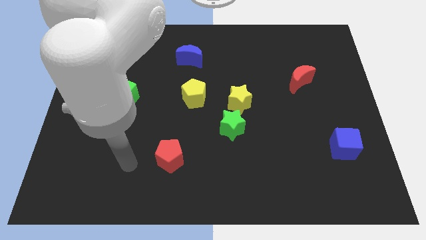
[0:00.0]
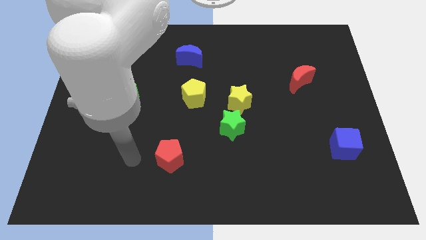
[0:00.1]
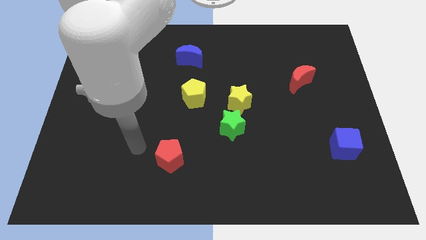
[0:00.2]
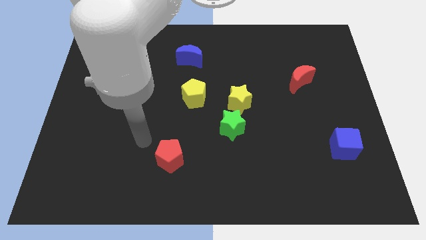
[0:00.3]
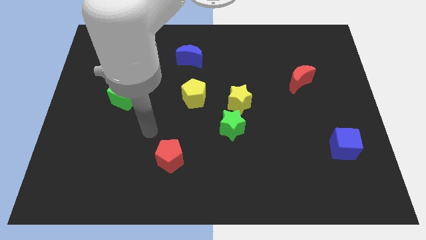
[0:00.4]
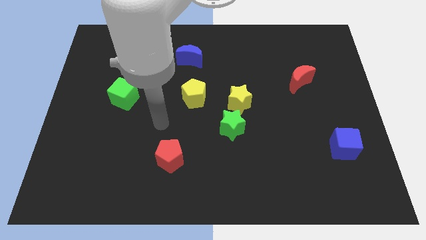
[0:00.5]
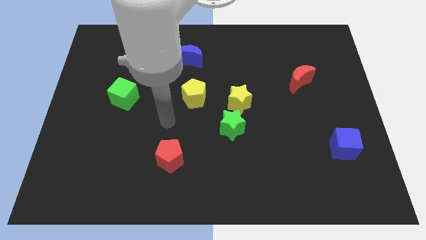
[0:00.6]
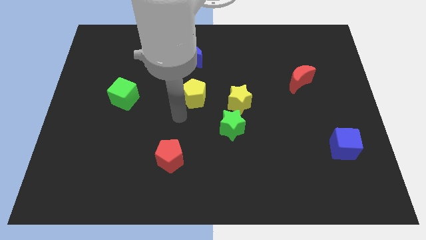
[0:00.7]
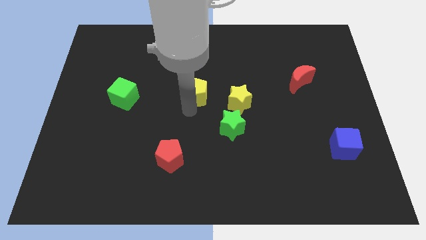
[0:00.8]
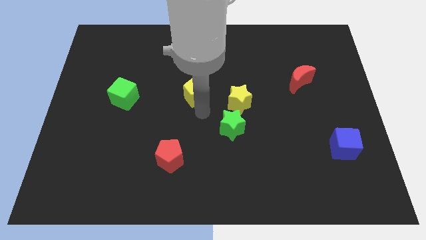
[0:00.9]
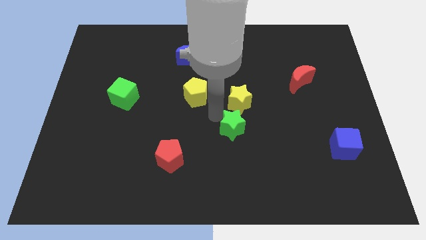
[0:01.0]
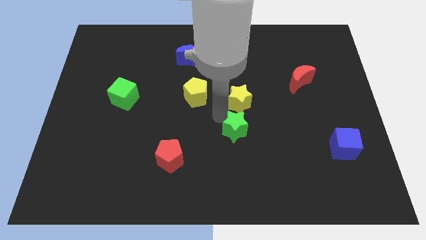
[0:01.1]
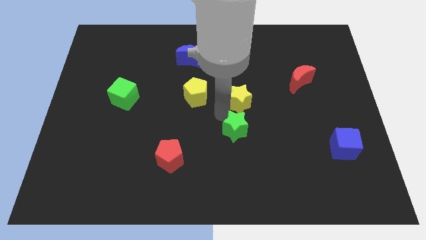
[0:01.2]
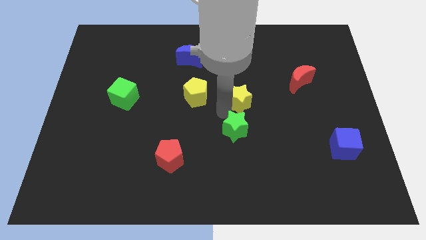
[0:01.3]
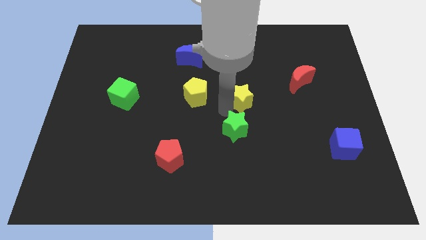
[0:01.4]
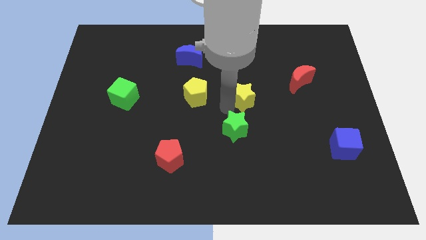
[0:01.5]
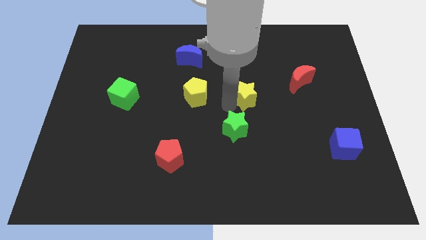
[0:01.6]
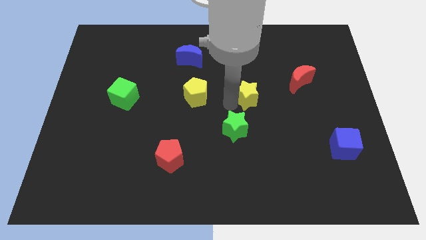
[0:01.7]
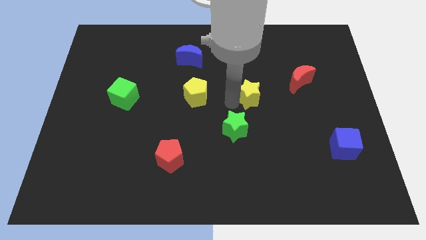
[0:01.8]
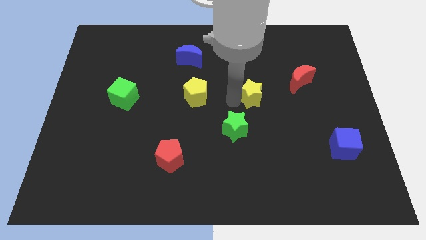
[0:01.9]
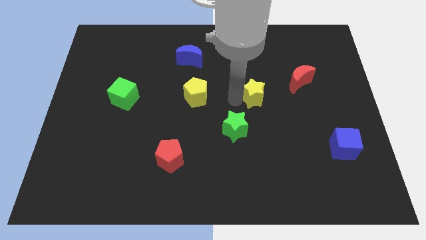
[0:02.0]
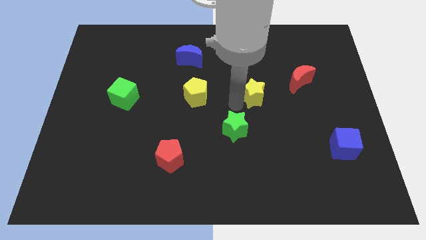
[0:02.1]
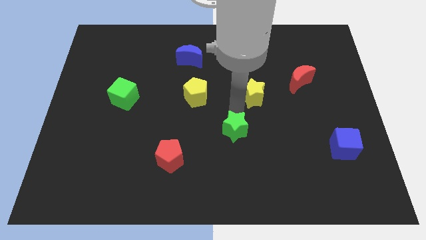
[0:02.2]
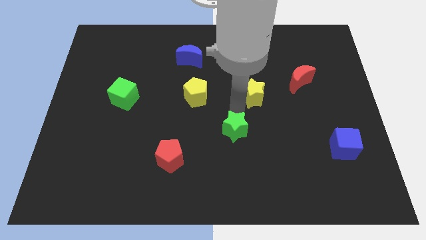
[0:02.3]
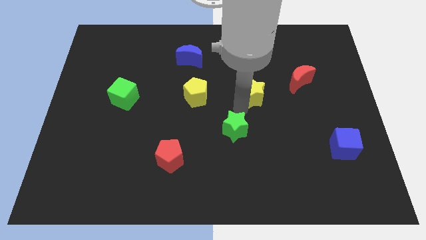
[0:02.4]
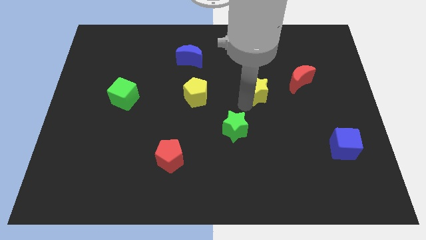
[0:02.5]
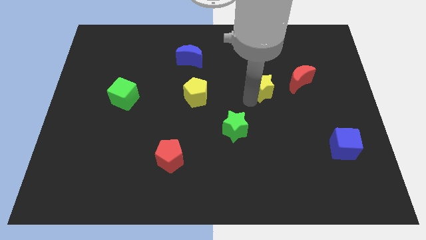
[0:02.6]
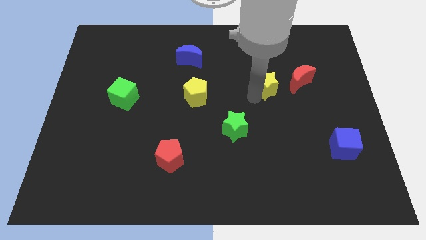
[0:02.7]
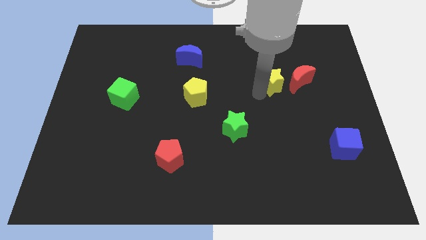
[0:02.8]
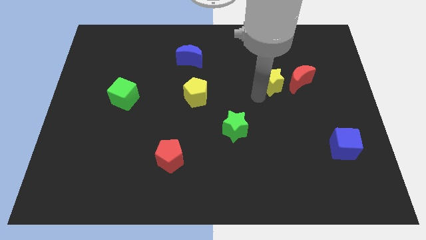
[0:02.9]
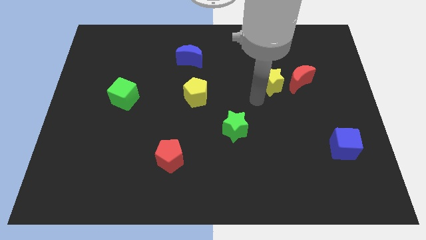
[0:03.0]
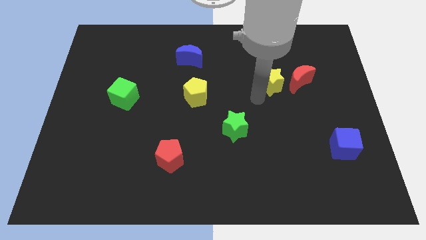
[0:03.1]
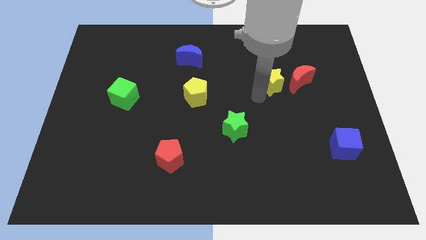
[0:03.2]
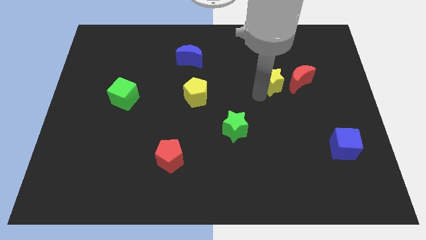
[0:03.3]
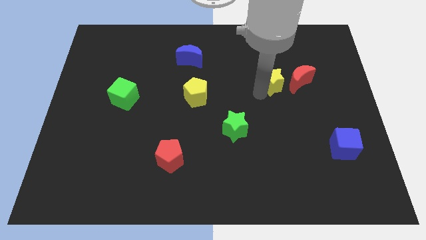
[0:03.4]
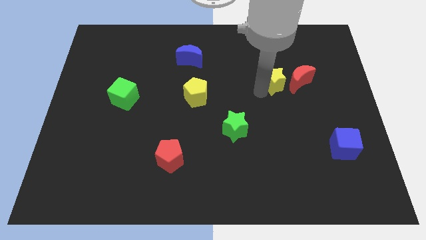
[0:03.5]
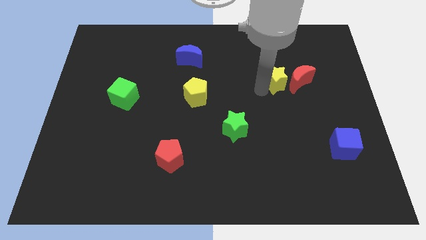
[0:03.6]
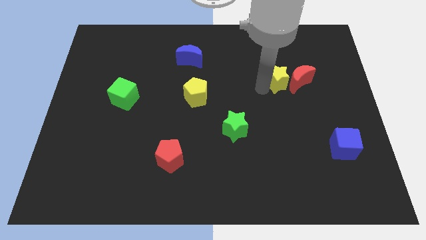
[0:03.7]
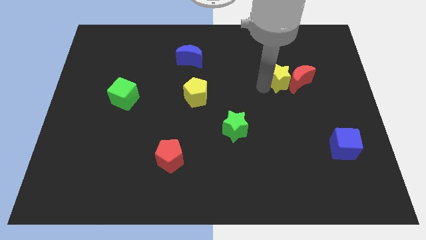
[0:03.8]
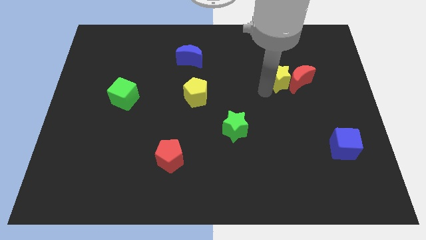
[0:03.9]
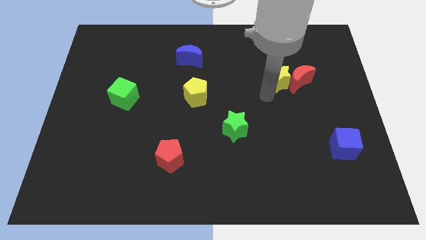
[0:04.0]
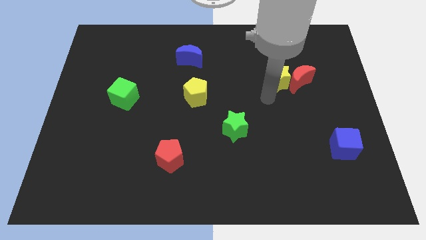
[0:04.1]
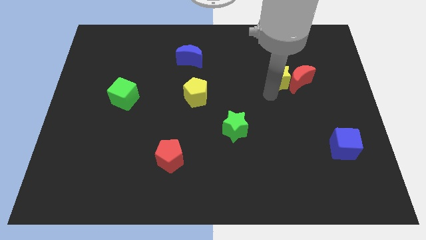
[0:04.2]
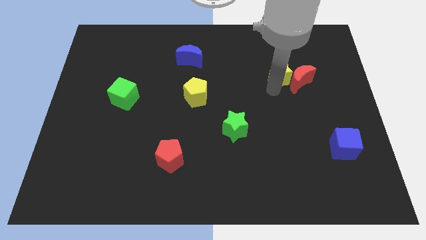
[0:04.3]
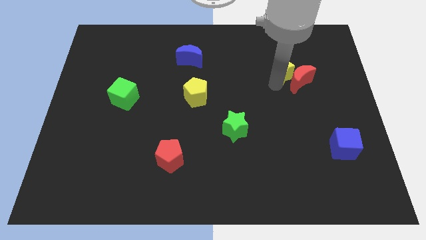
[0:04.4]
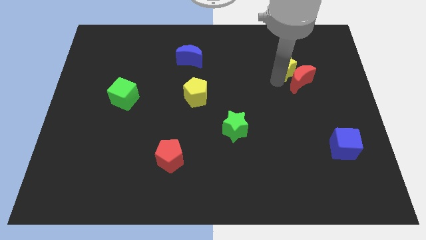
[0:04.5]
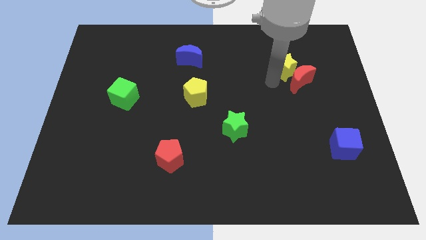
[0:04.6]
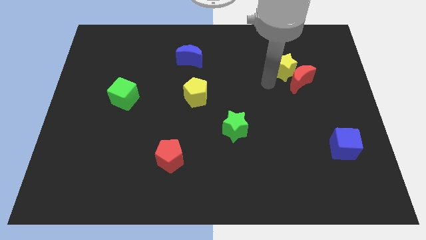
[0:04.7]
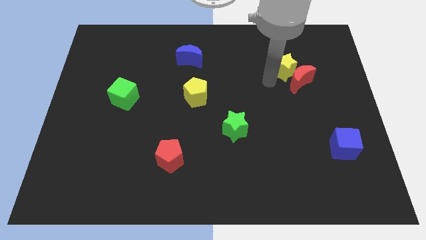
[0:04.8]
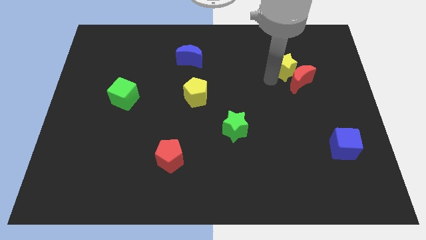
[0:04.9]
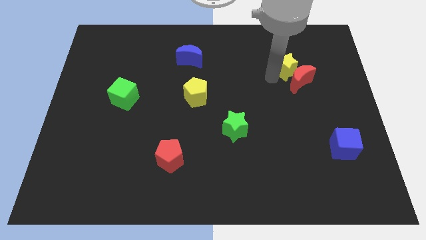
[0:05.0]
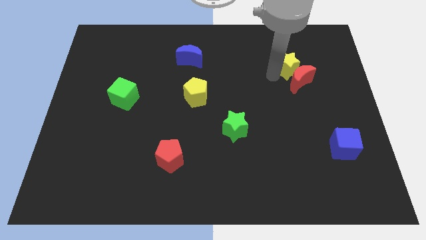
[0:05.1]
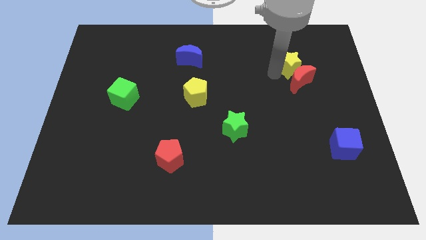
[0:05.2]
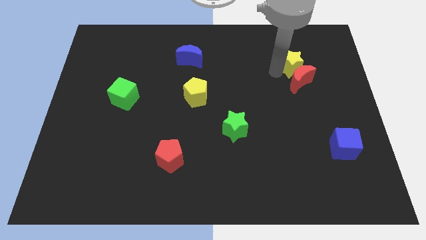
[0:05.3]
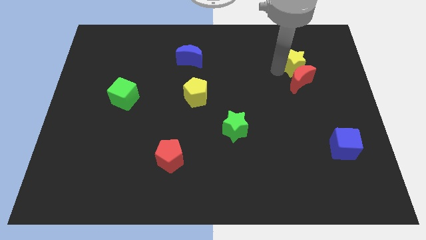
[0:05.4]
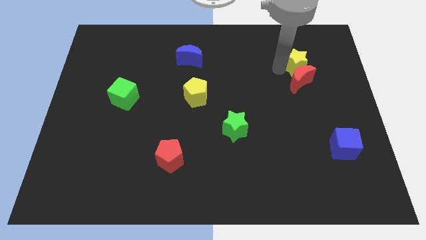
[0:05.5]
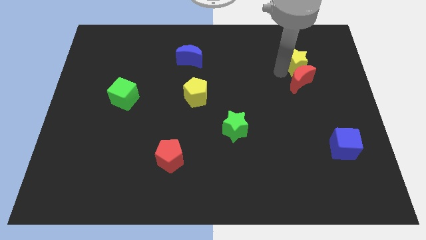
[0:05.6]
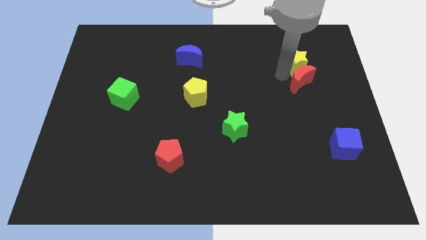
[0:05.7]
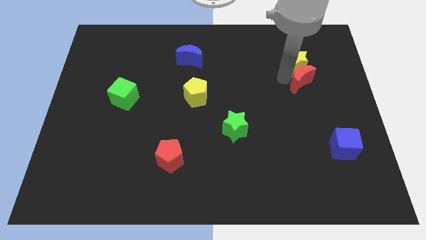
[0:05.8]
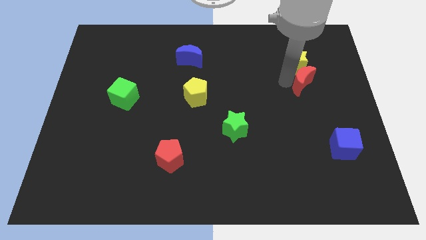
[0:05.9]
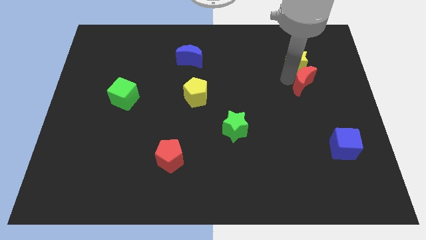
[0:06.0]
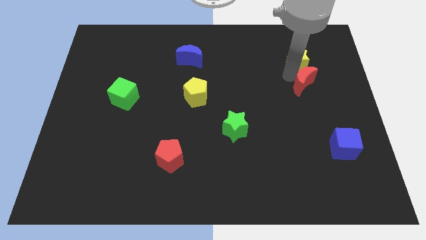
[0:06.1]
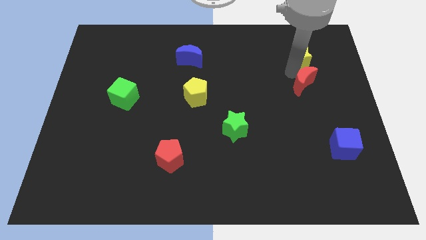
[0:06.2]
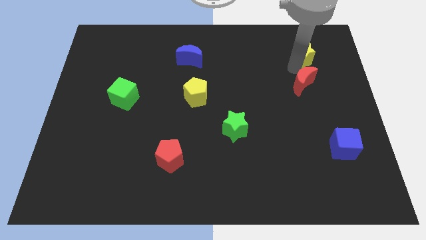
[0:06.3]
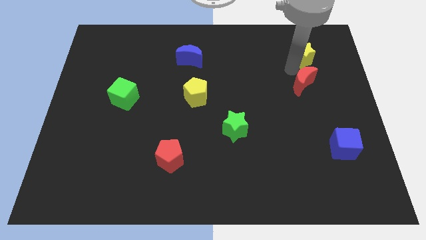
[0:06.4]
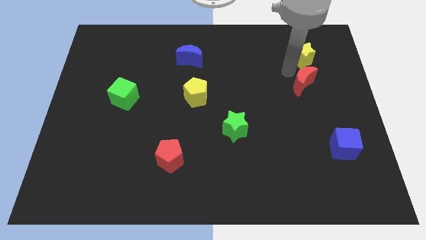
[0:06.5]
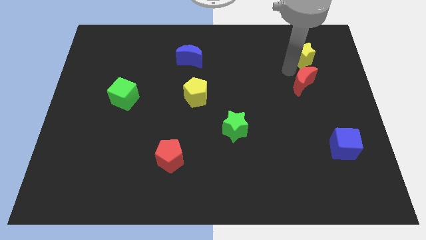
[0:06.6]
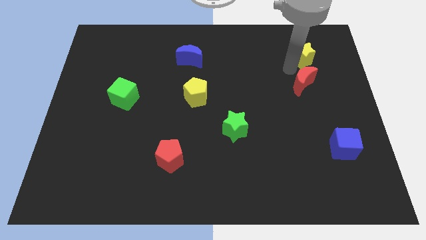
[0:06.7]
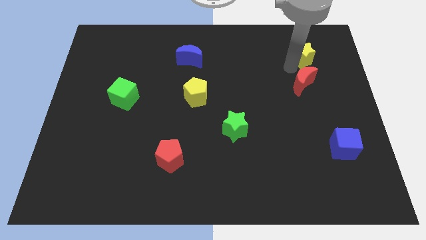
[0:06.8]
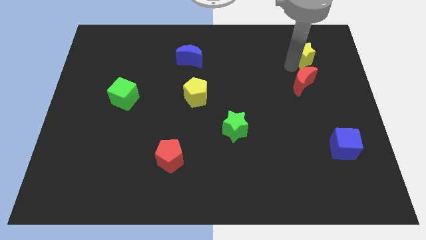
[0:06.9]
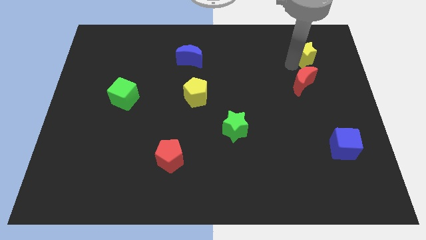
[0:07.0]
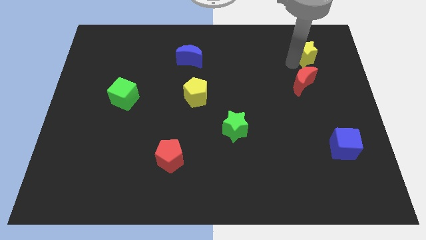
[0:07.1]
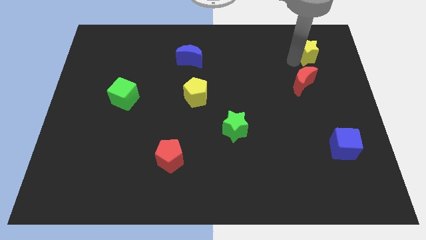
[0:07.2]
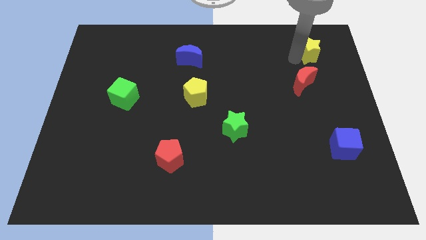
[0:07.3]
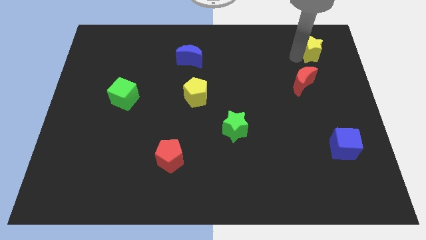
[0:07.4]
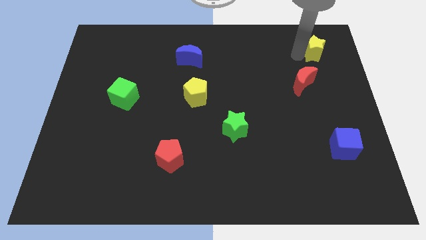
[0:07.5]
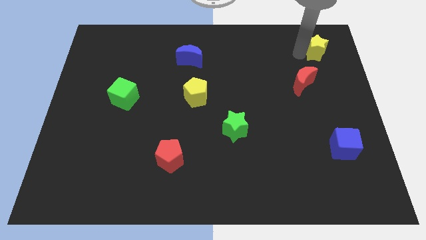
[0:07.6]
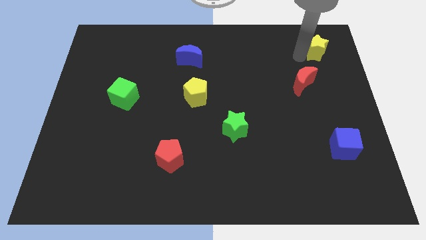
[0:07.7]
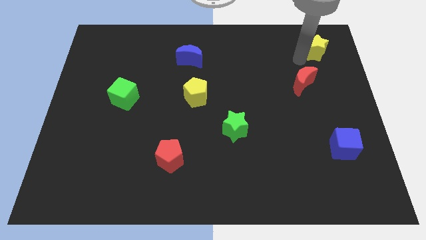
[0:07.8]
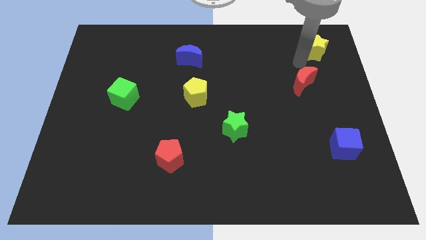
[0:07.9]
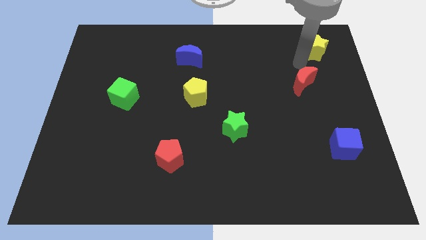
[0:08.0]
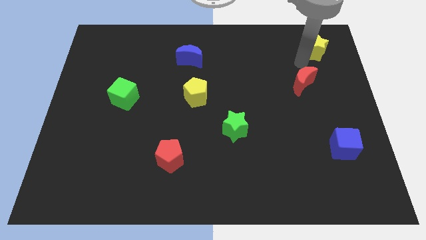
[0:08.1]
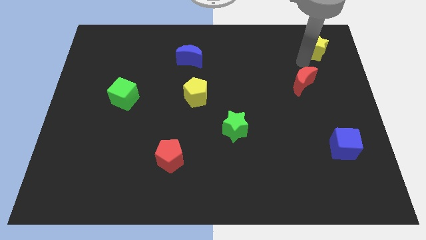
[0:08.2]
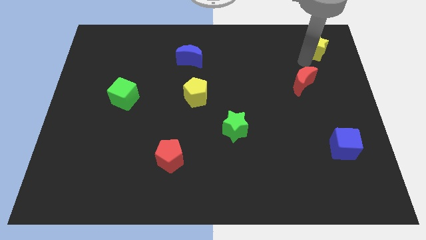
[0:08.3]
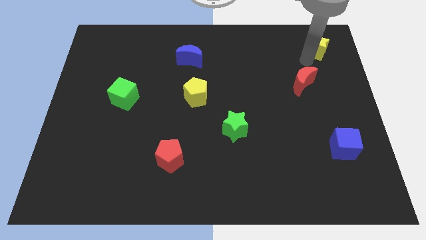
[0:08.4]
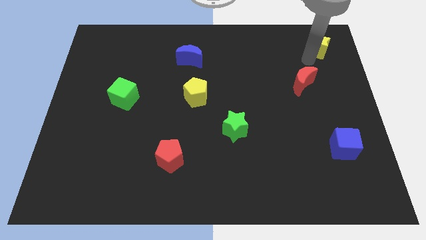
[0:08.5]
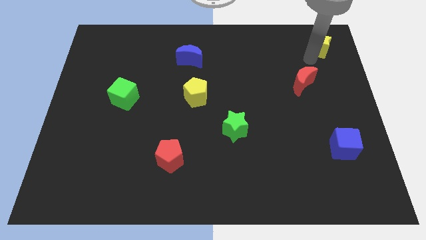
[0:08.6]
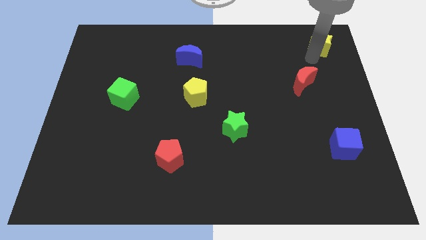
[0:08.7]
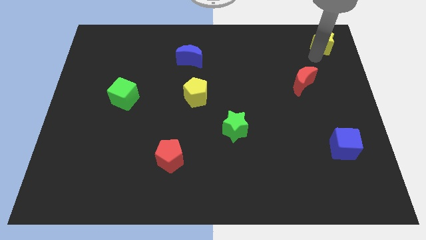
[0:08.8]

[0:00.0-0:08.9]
slide the yellow star to the top right of the board
